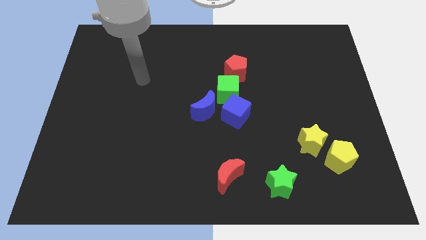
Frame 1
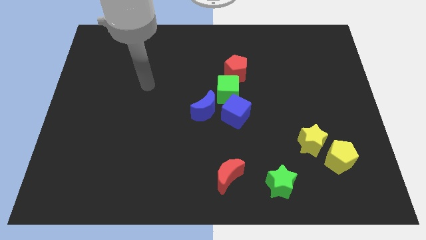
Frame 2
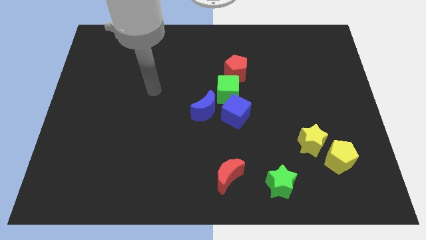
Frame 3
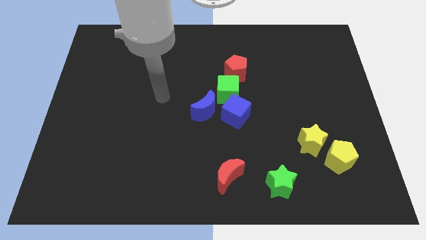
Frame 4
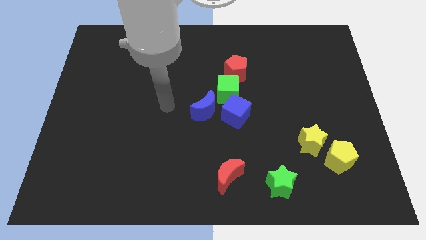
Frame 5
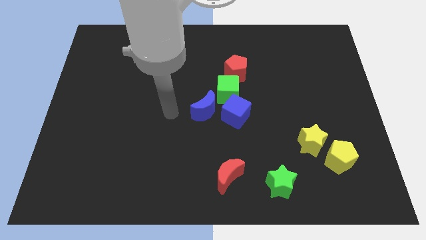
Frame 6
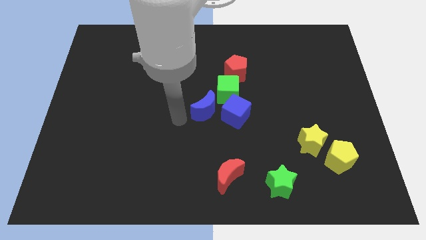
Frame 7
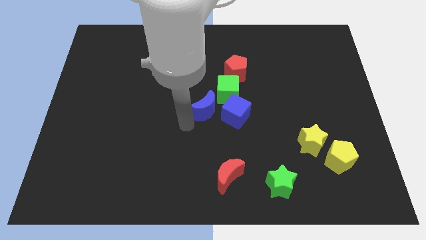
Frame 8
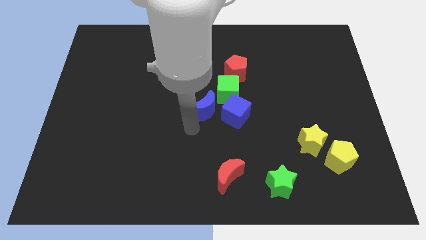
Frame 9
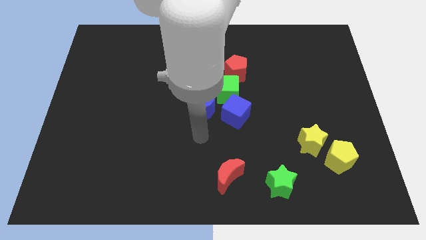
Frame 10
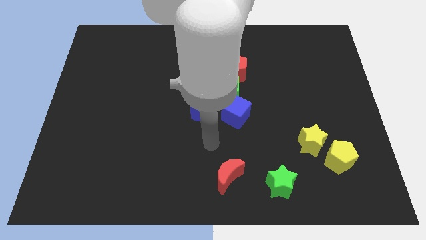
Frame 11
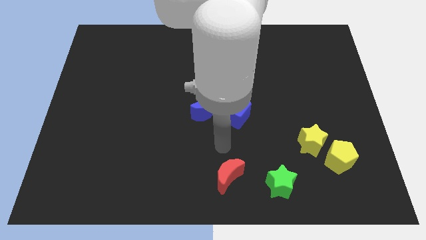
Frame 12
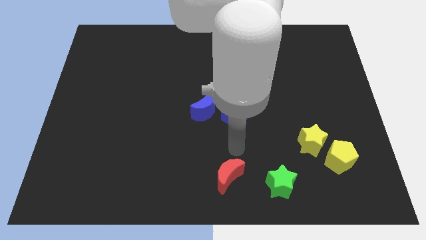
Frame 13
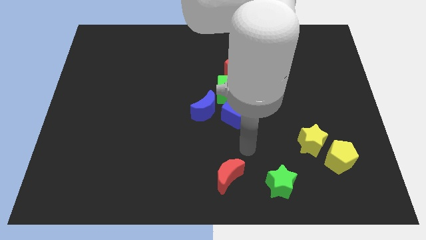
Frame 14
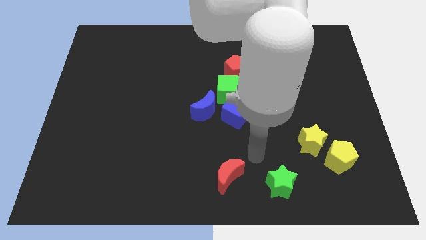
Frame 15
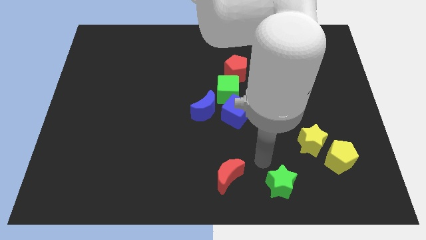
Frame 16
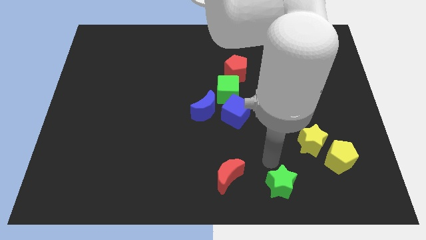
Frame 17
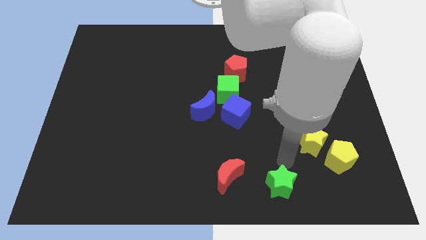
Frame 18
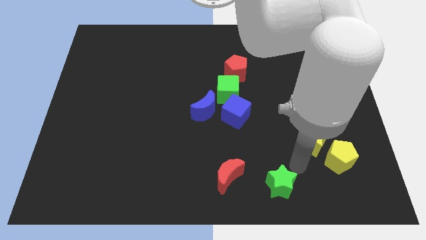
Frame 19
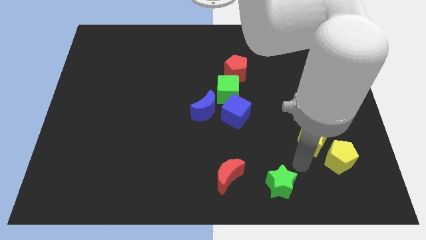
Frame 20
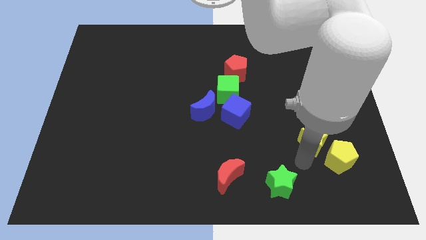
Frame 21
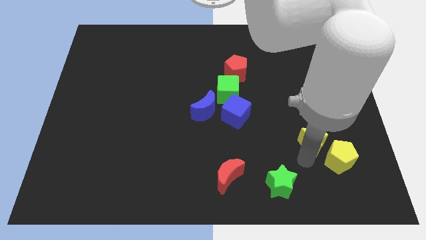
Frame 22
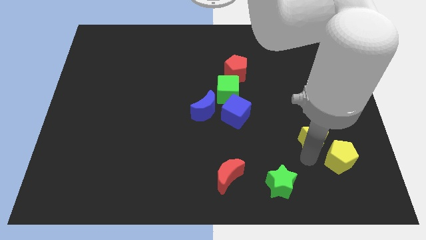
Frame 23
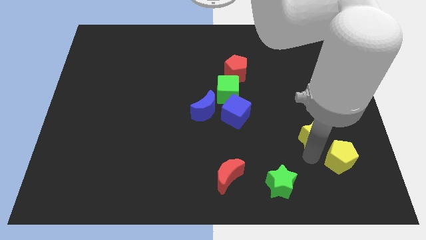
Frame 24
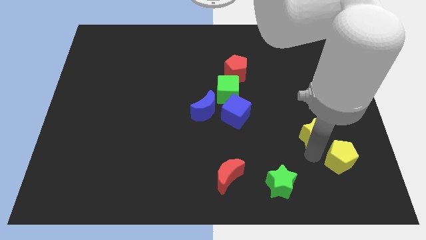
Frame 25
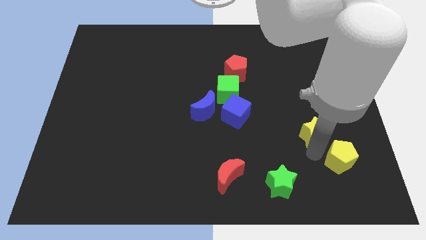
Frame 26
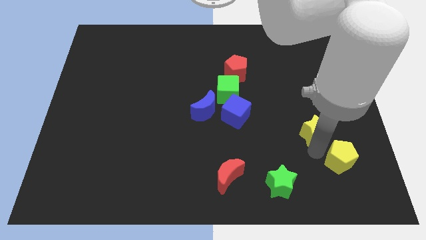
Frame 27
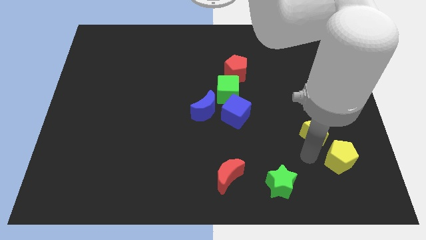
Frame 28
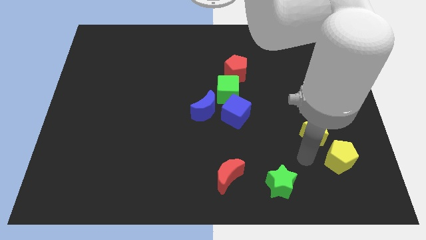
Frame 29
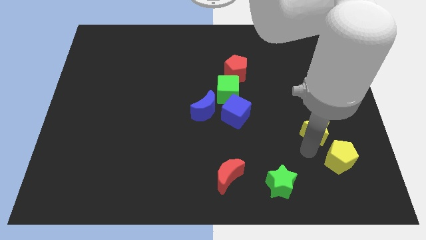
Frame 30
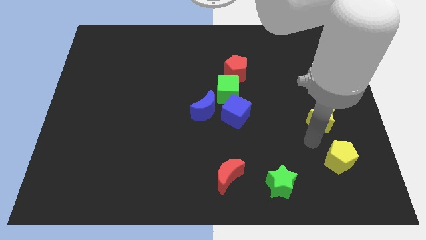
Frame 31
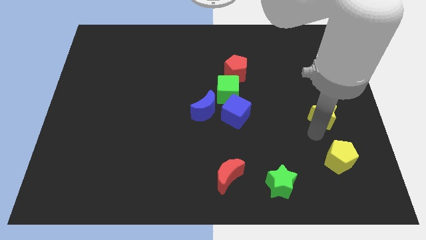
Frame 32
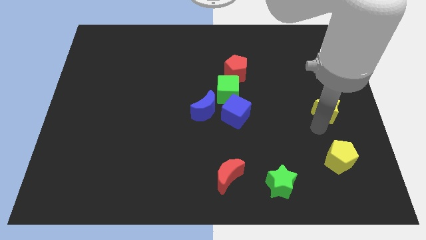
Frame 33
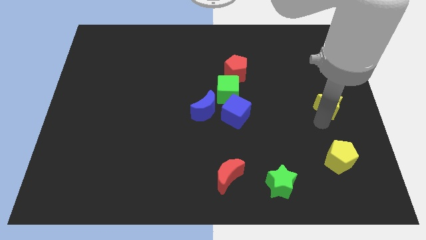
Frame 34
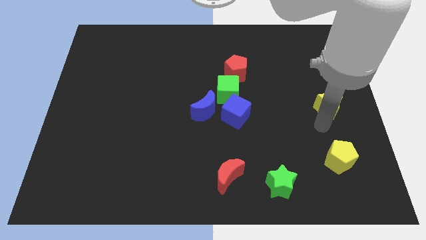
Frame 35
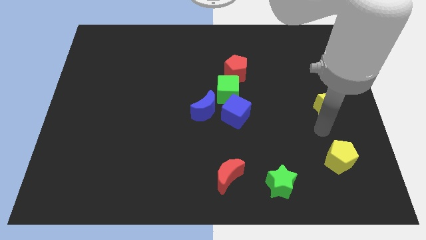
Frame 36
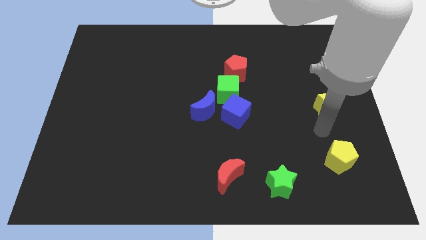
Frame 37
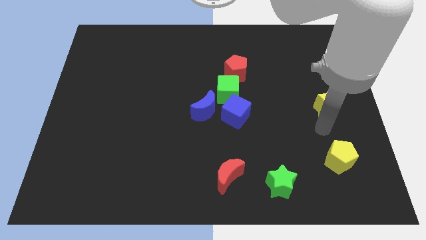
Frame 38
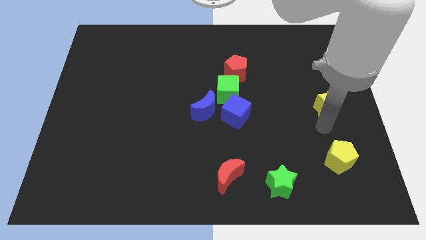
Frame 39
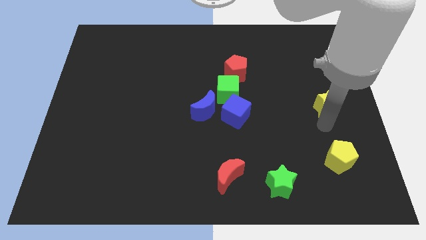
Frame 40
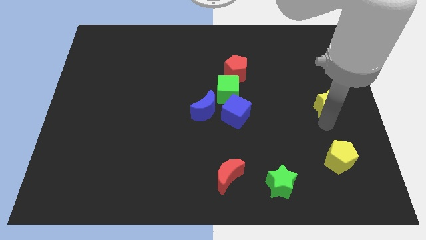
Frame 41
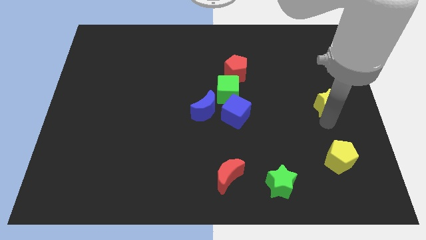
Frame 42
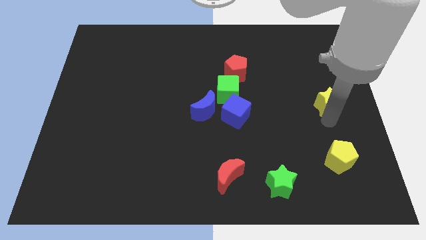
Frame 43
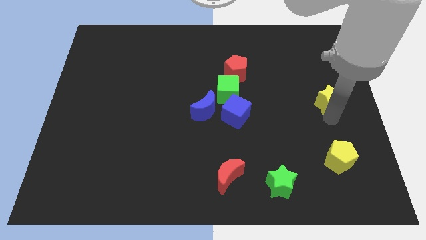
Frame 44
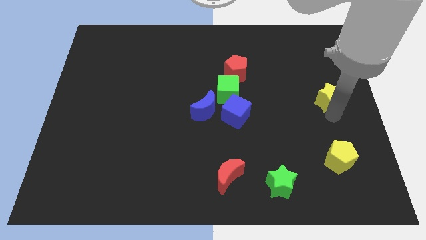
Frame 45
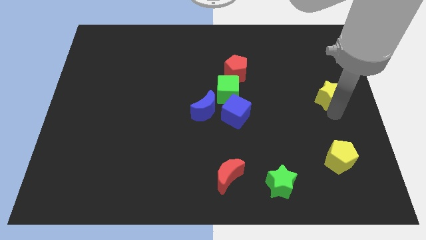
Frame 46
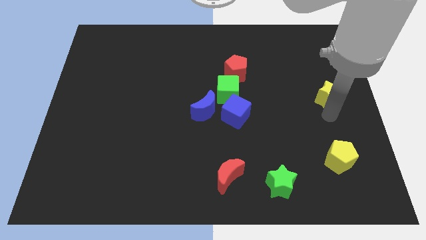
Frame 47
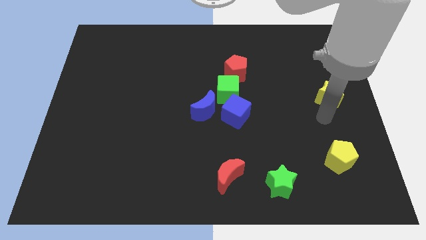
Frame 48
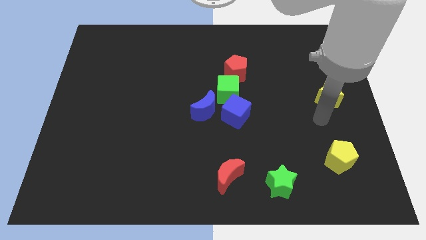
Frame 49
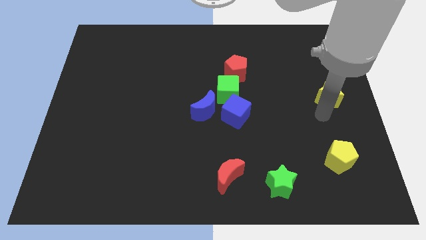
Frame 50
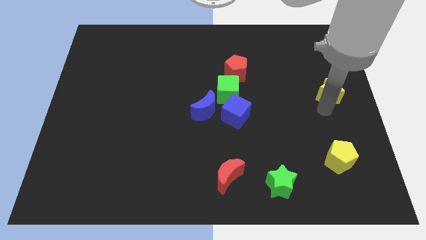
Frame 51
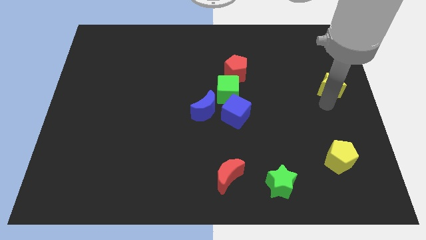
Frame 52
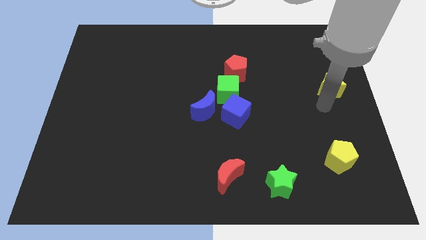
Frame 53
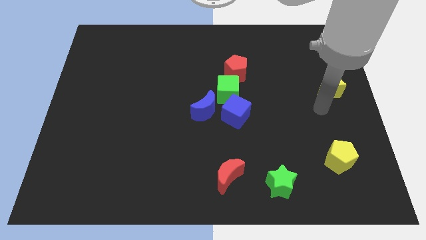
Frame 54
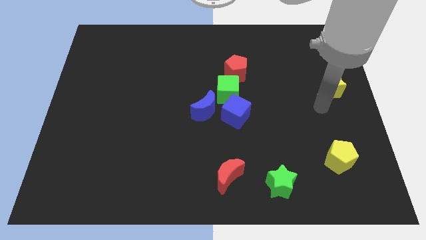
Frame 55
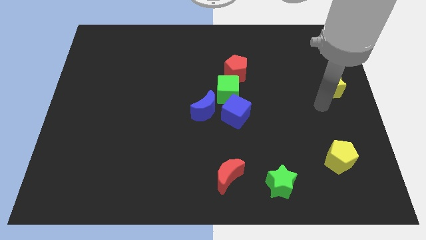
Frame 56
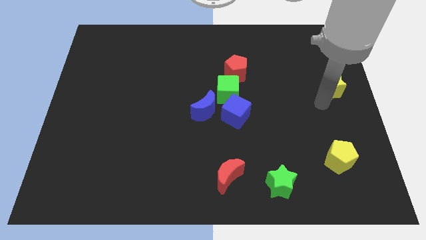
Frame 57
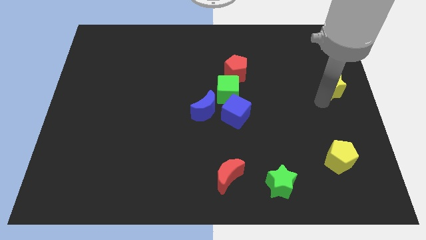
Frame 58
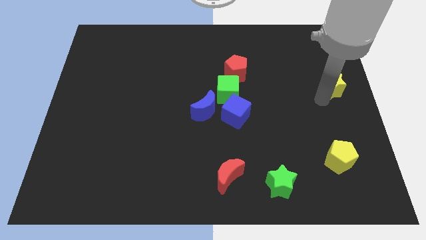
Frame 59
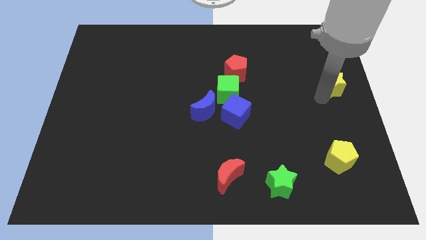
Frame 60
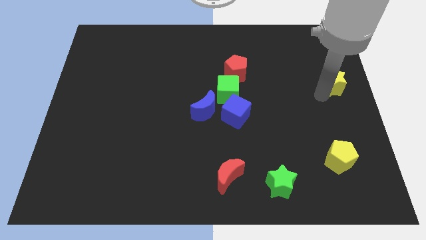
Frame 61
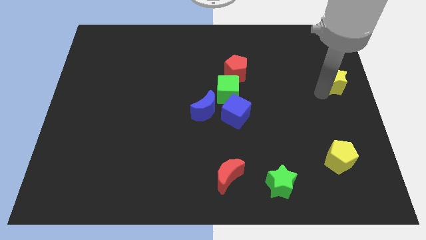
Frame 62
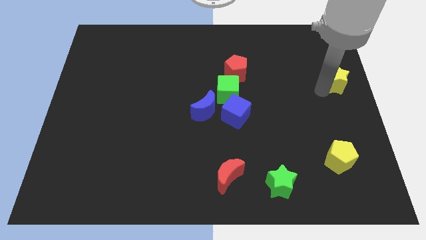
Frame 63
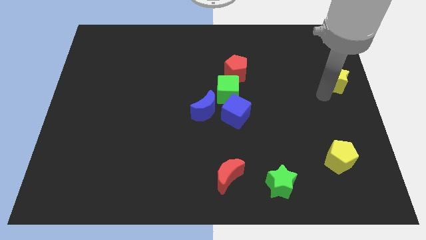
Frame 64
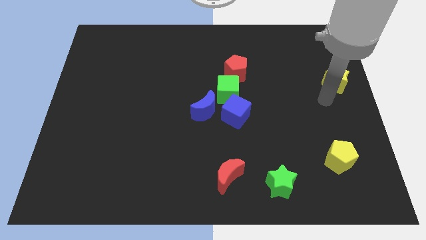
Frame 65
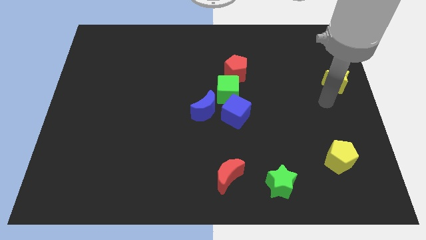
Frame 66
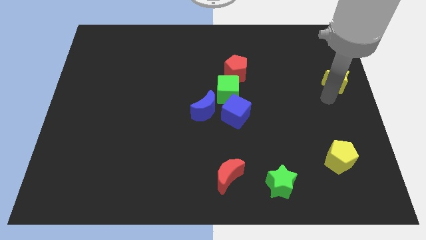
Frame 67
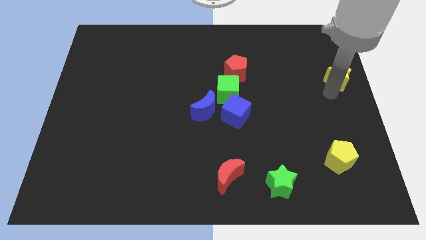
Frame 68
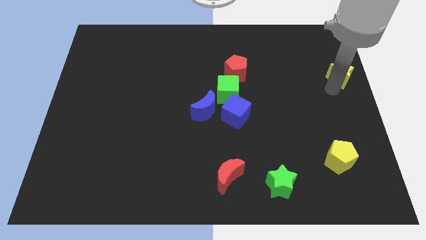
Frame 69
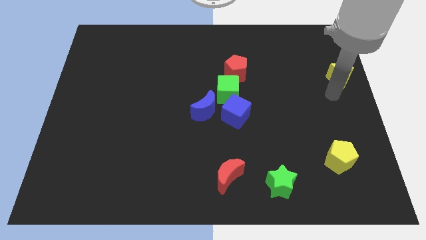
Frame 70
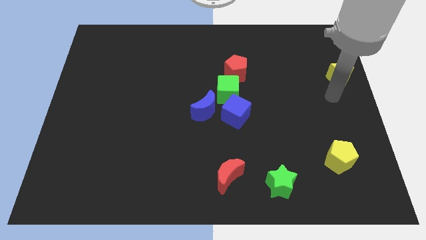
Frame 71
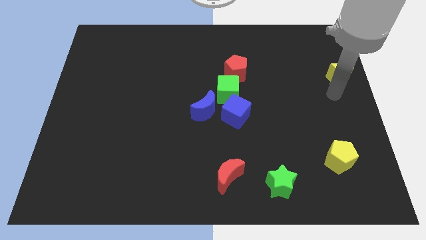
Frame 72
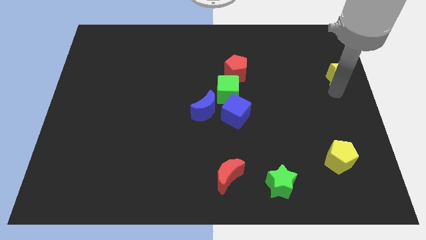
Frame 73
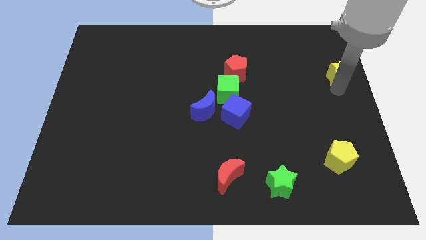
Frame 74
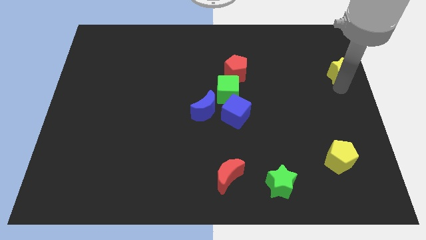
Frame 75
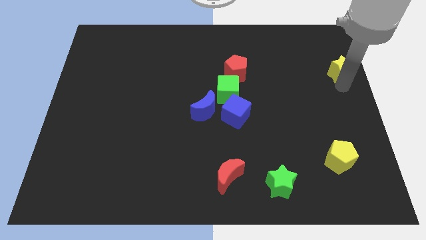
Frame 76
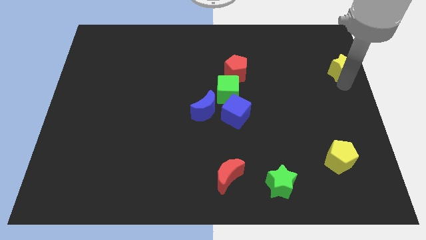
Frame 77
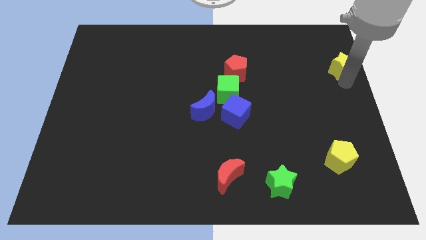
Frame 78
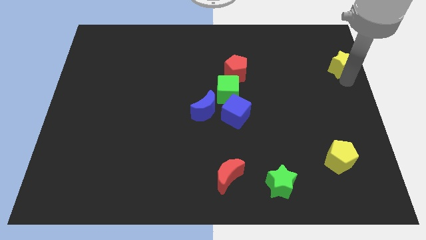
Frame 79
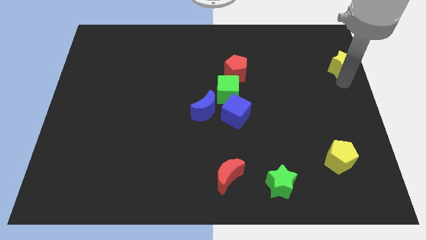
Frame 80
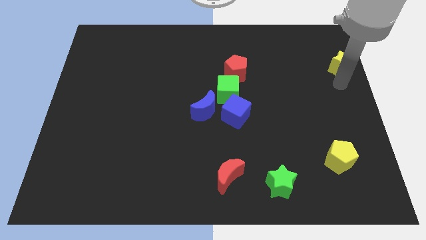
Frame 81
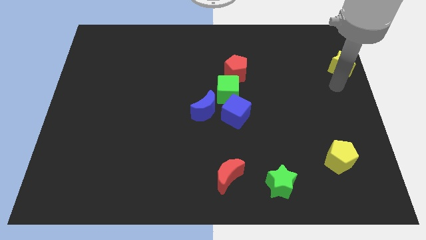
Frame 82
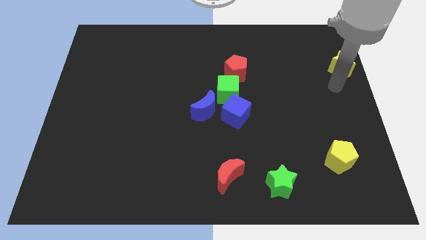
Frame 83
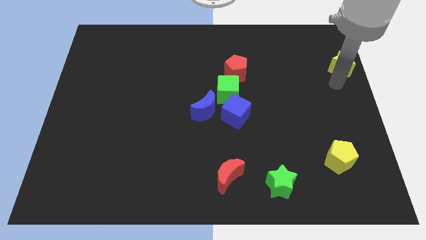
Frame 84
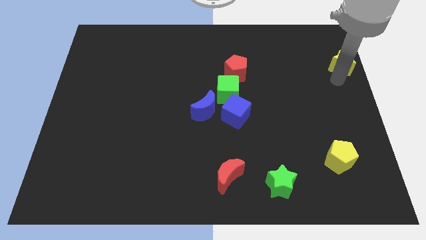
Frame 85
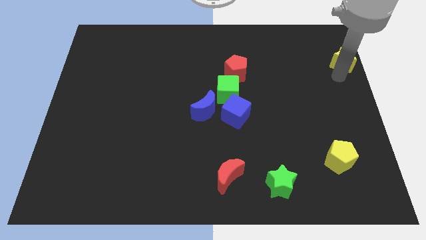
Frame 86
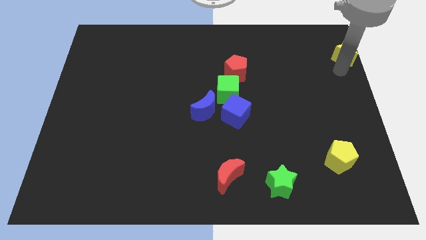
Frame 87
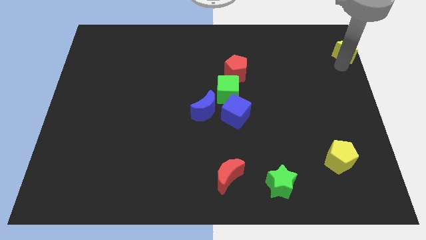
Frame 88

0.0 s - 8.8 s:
slide the yellow star to the top right
